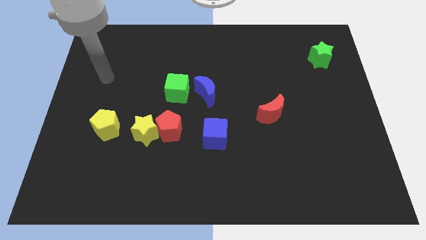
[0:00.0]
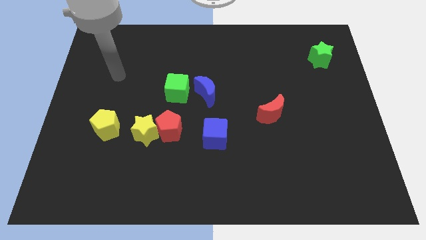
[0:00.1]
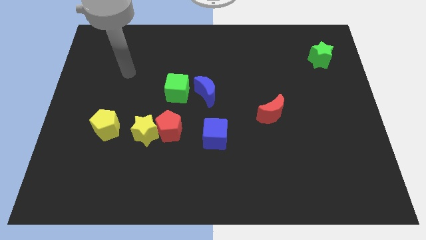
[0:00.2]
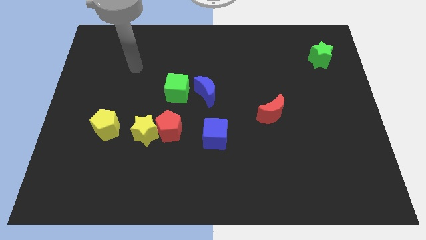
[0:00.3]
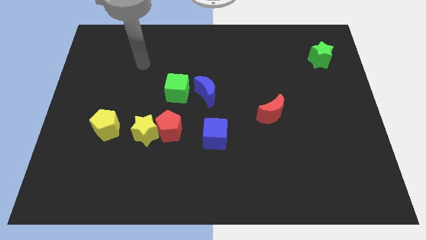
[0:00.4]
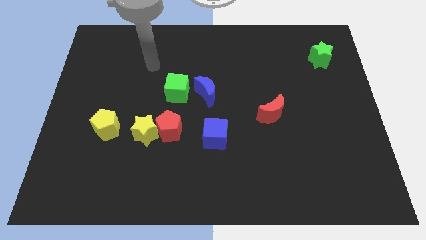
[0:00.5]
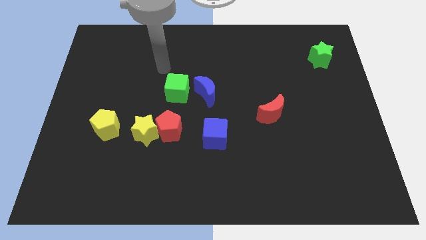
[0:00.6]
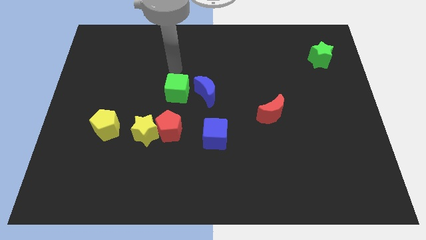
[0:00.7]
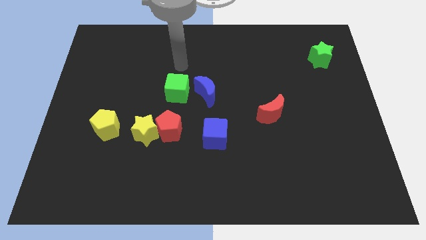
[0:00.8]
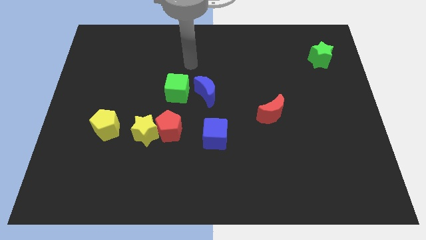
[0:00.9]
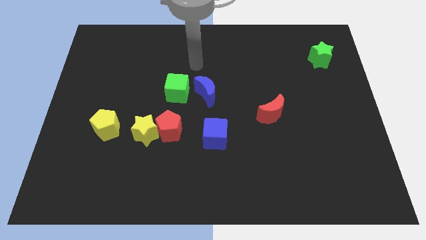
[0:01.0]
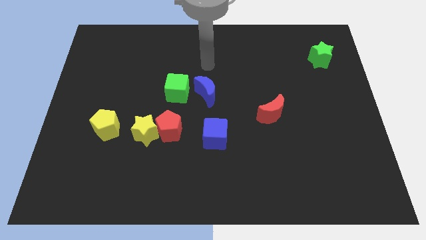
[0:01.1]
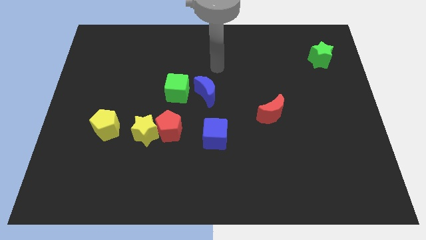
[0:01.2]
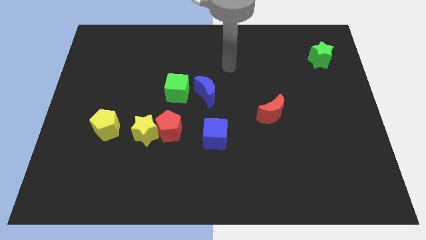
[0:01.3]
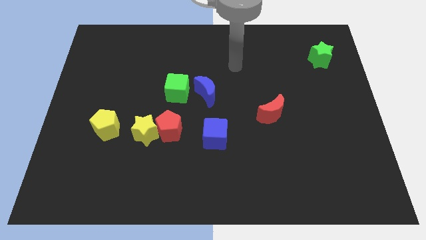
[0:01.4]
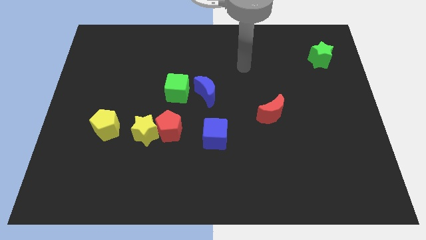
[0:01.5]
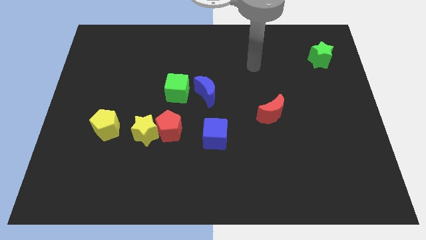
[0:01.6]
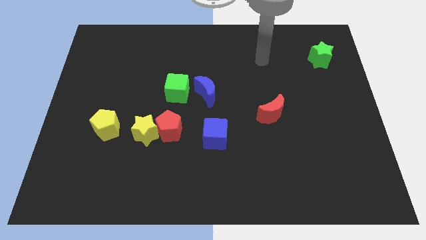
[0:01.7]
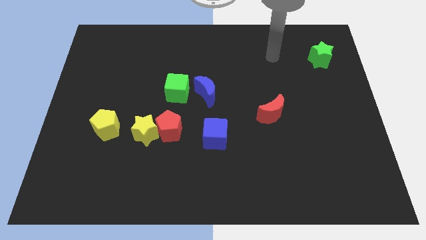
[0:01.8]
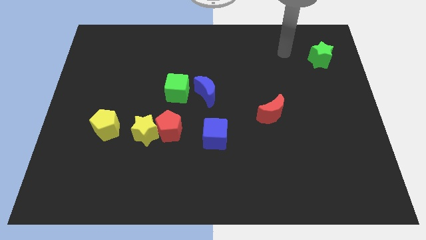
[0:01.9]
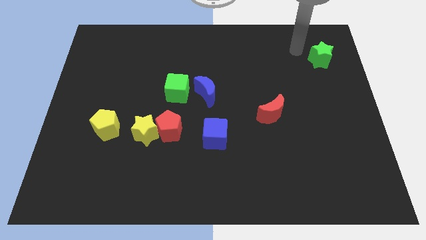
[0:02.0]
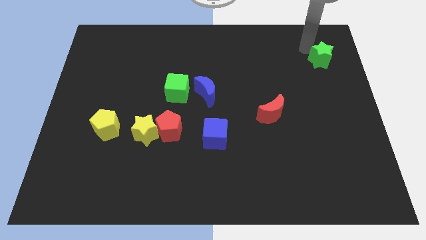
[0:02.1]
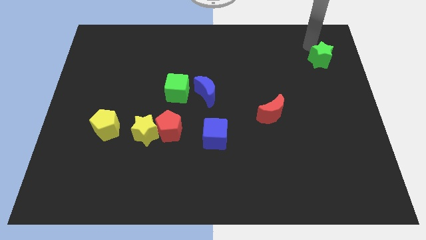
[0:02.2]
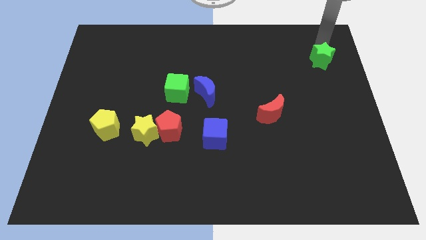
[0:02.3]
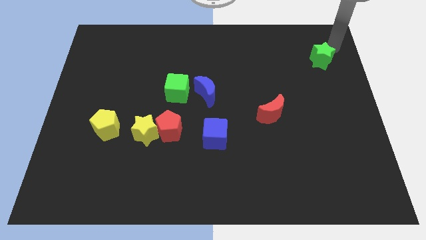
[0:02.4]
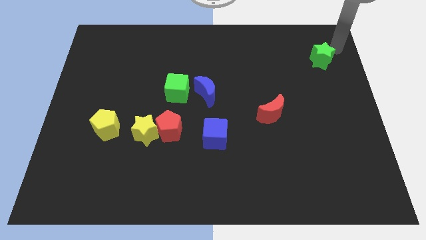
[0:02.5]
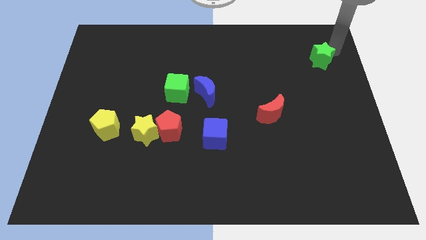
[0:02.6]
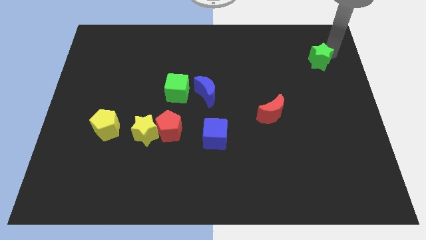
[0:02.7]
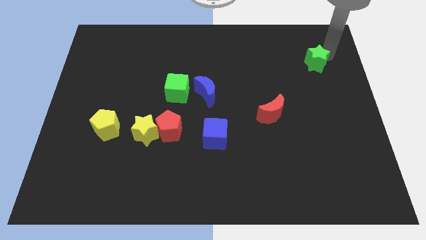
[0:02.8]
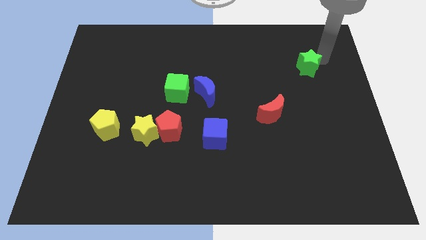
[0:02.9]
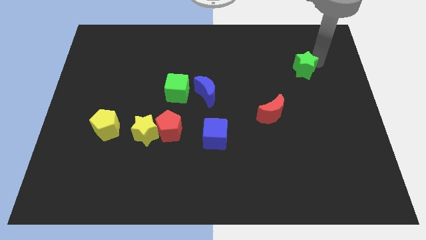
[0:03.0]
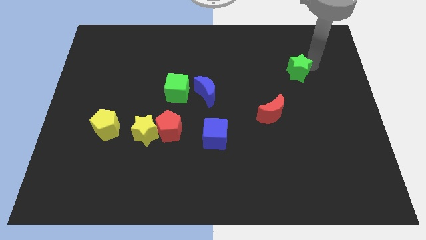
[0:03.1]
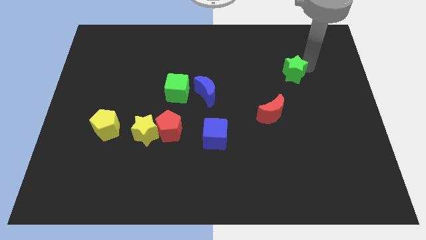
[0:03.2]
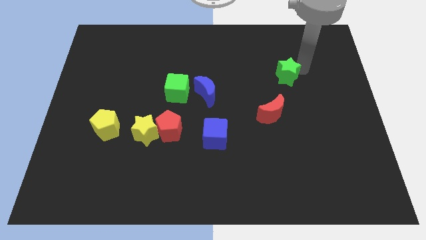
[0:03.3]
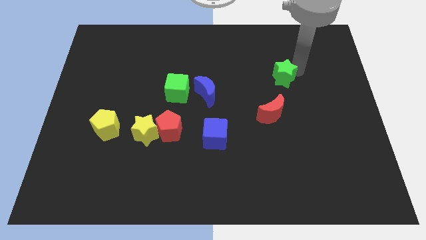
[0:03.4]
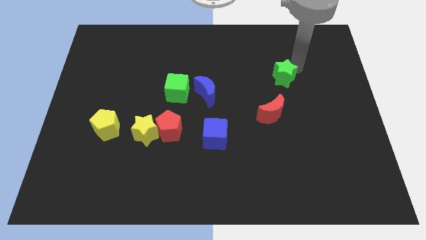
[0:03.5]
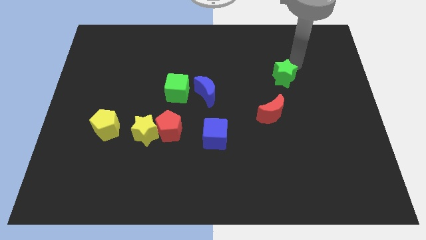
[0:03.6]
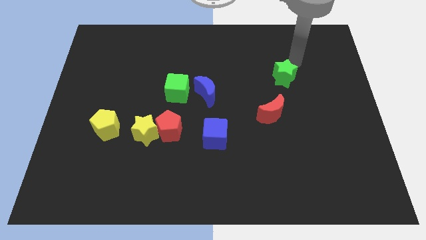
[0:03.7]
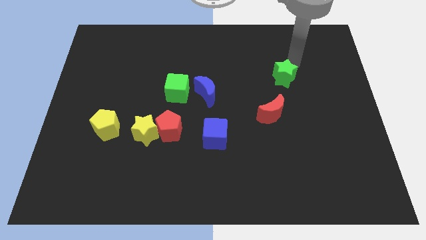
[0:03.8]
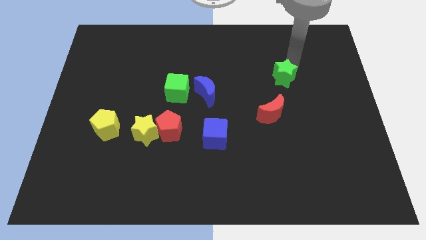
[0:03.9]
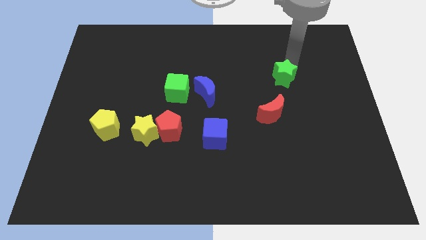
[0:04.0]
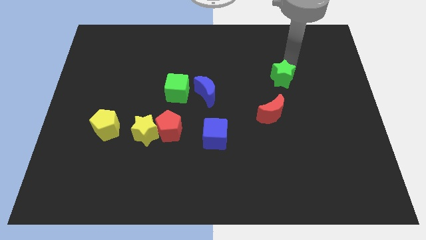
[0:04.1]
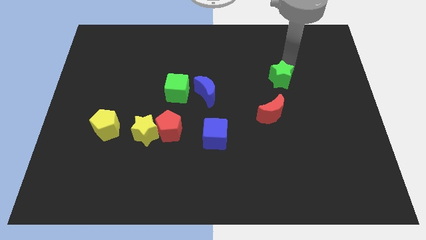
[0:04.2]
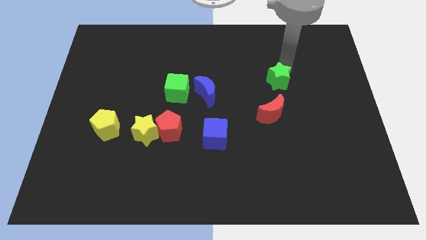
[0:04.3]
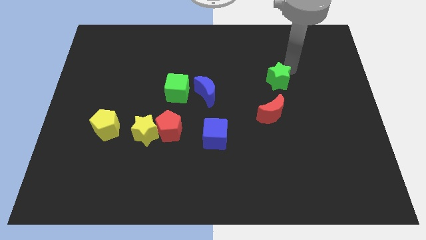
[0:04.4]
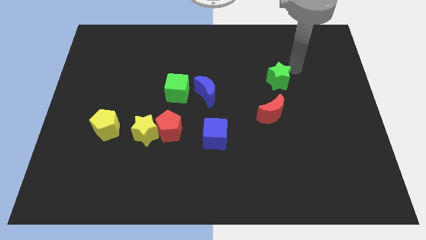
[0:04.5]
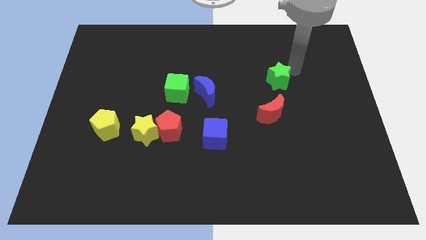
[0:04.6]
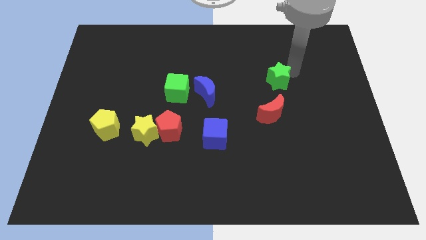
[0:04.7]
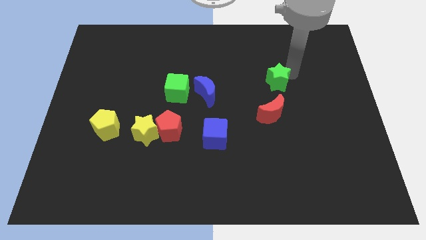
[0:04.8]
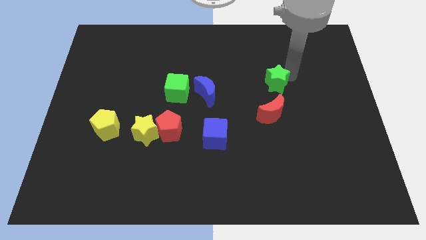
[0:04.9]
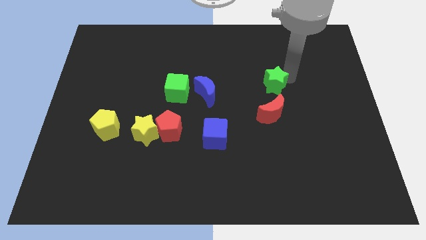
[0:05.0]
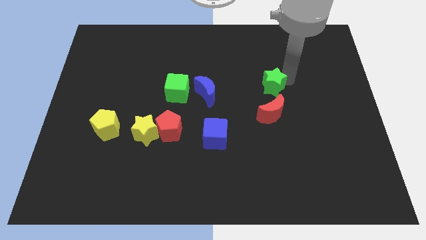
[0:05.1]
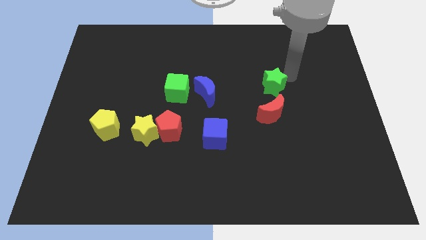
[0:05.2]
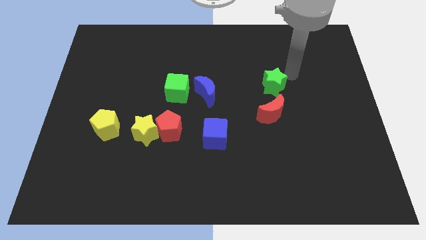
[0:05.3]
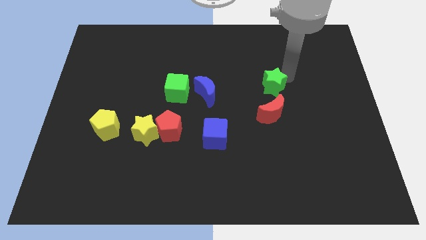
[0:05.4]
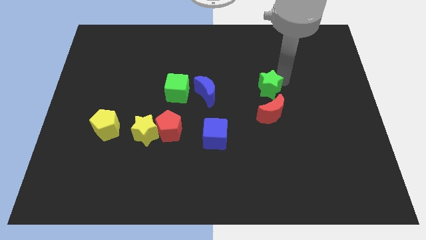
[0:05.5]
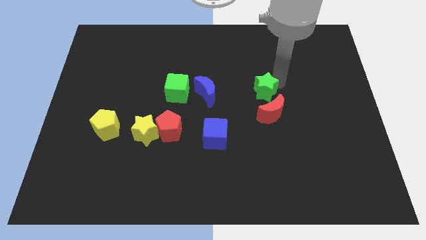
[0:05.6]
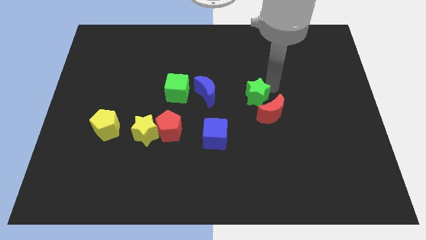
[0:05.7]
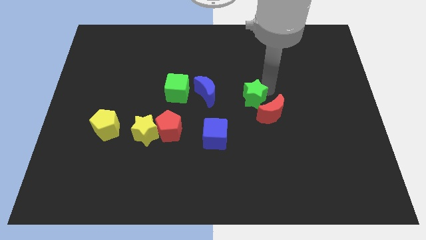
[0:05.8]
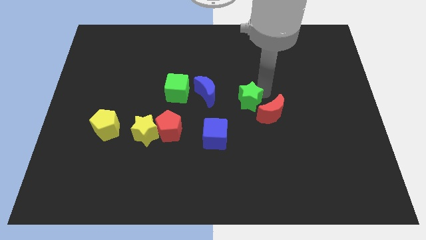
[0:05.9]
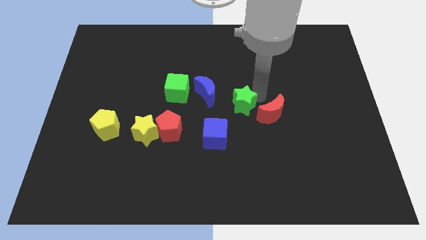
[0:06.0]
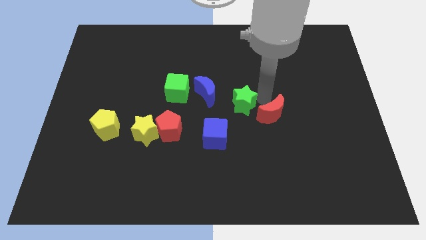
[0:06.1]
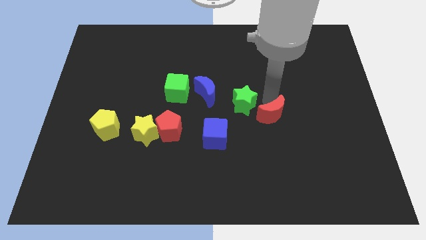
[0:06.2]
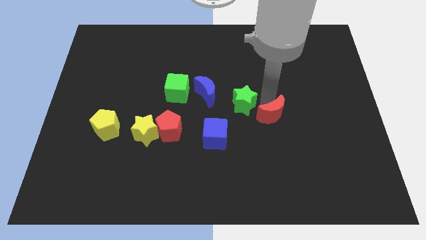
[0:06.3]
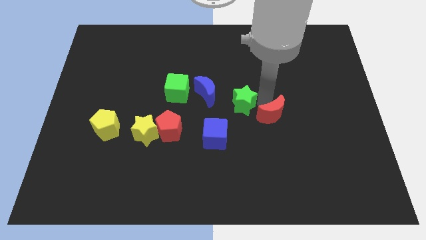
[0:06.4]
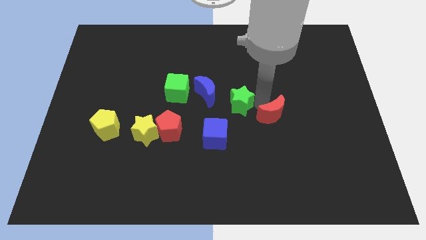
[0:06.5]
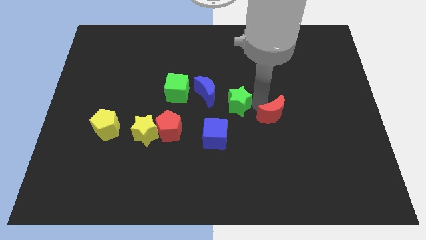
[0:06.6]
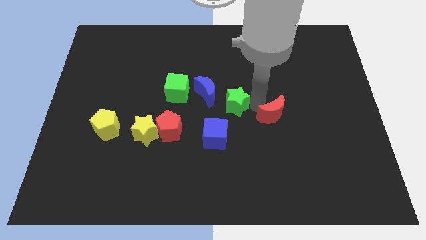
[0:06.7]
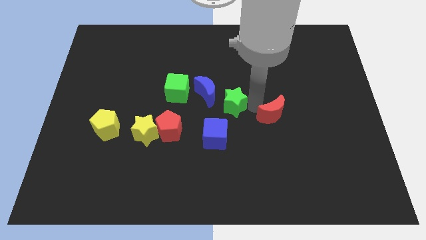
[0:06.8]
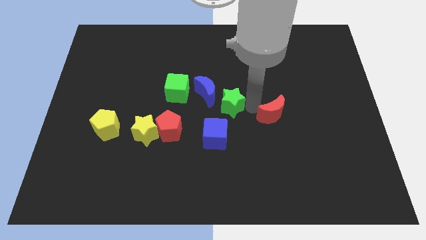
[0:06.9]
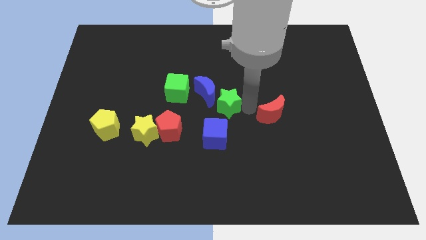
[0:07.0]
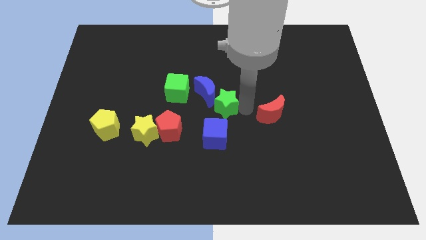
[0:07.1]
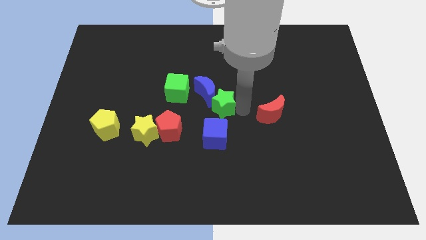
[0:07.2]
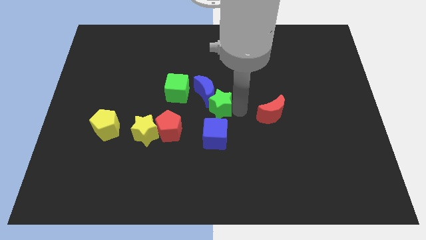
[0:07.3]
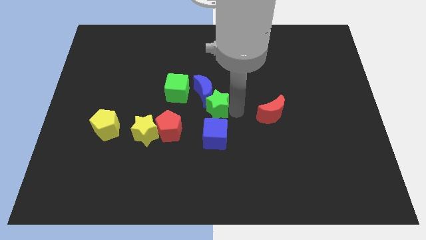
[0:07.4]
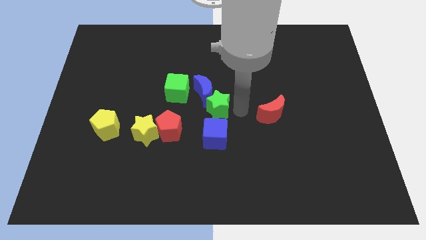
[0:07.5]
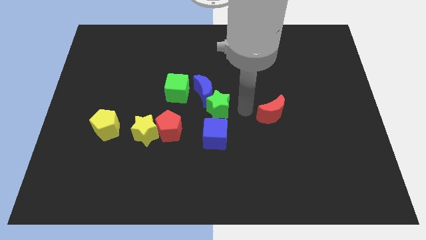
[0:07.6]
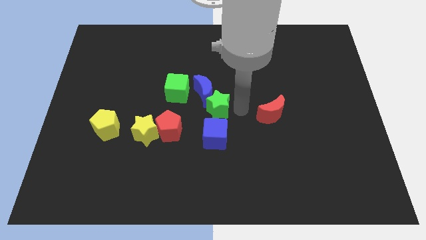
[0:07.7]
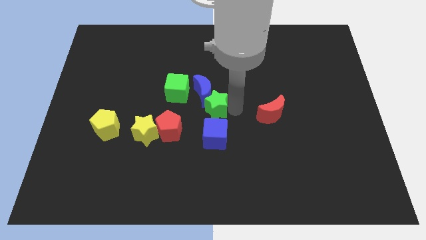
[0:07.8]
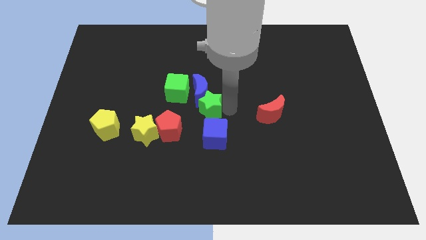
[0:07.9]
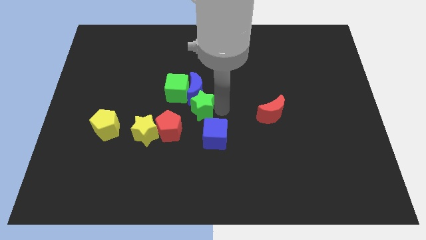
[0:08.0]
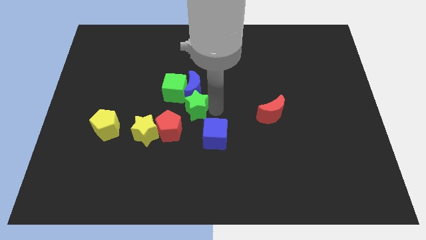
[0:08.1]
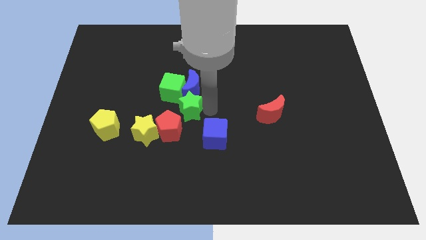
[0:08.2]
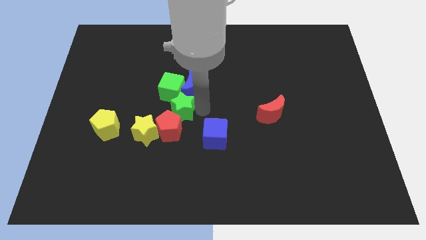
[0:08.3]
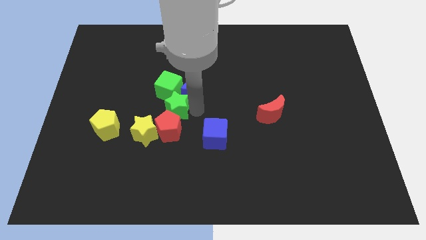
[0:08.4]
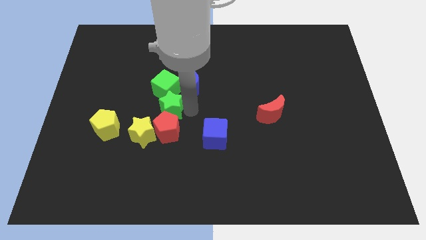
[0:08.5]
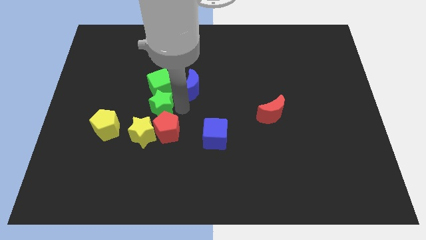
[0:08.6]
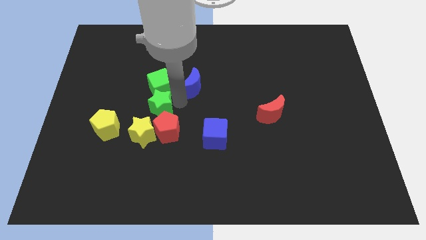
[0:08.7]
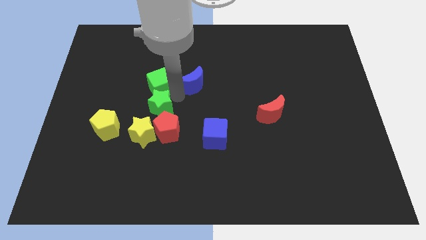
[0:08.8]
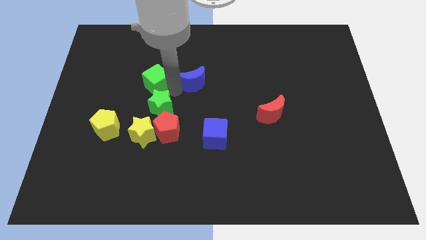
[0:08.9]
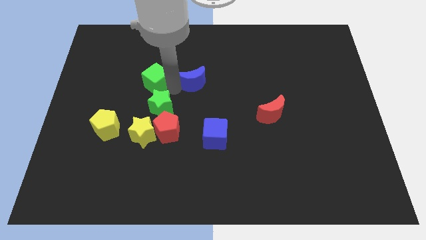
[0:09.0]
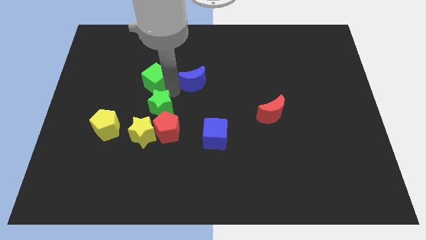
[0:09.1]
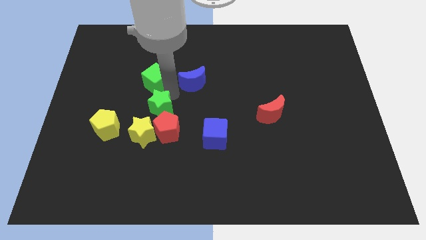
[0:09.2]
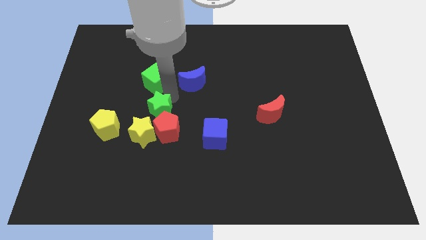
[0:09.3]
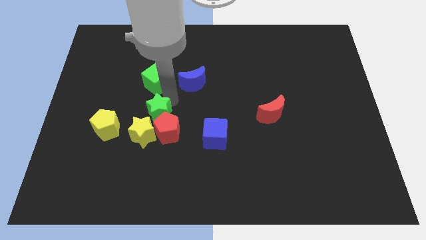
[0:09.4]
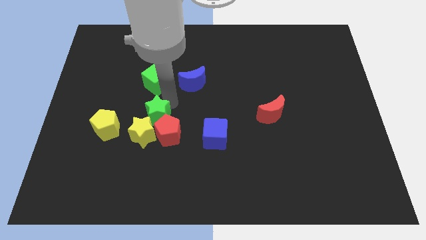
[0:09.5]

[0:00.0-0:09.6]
slide the green star towards the yellow star
